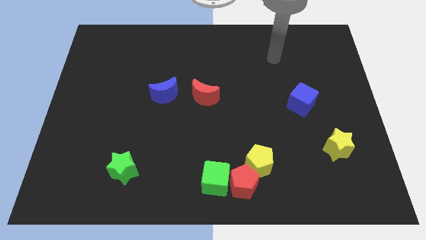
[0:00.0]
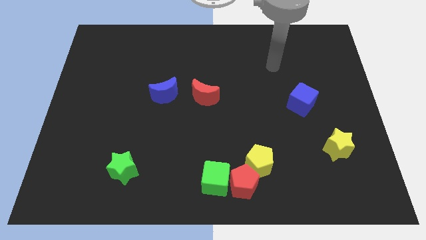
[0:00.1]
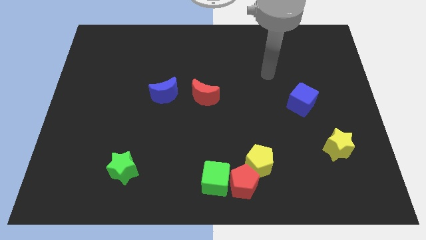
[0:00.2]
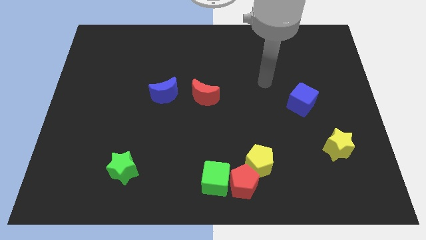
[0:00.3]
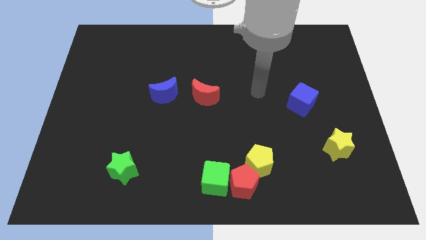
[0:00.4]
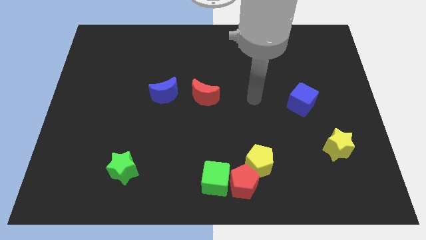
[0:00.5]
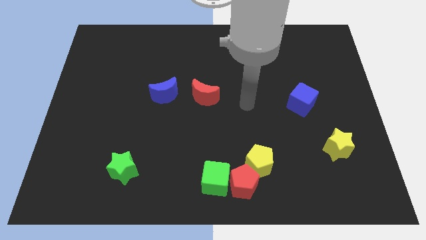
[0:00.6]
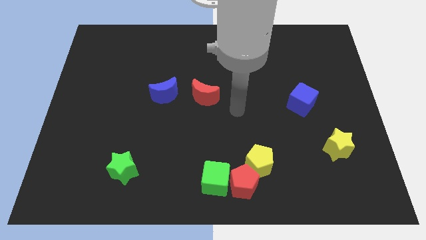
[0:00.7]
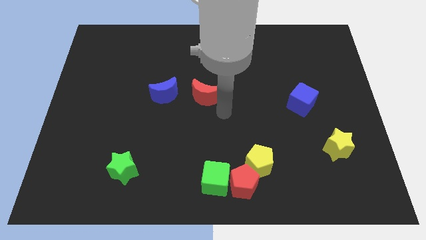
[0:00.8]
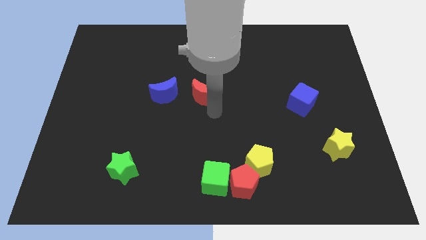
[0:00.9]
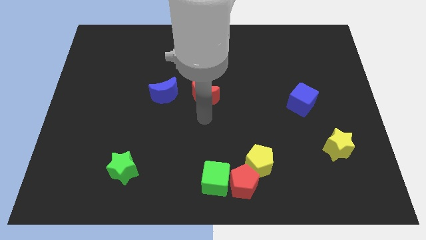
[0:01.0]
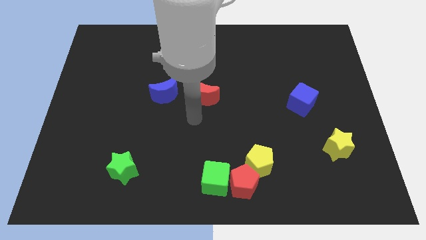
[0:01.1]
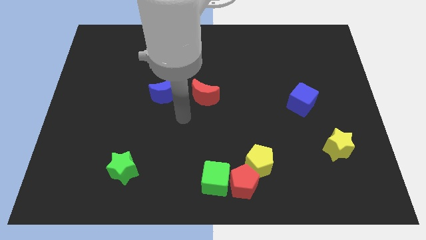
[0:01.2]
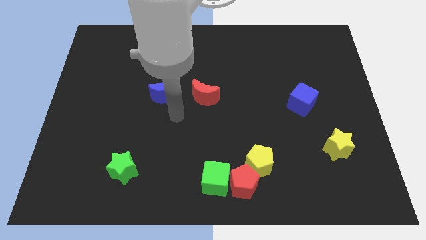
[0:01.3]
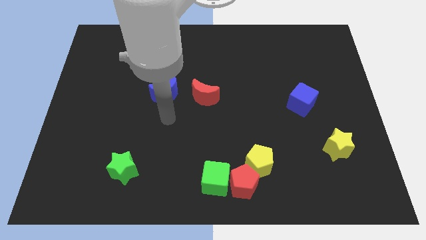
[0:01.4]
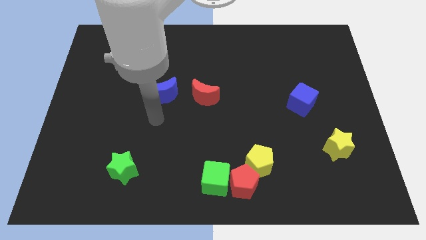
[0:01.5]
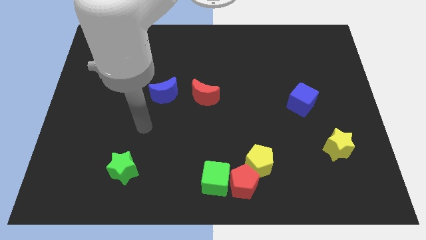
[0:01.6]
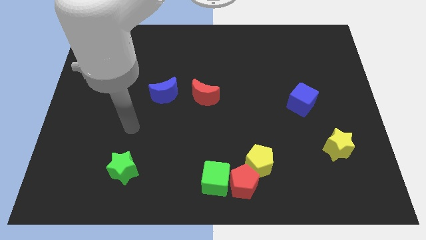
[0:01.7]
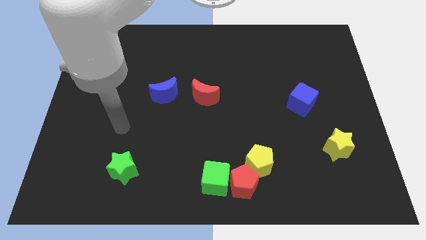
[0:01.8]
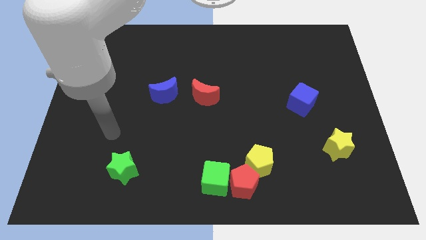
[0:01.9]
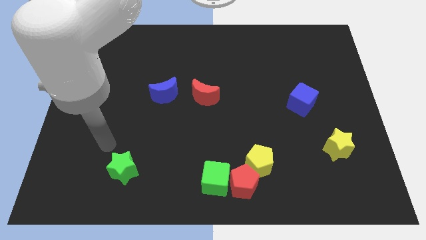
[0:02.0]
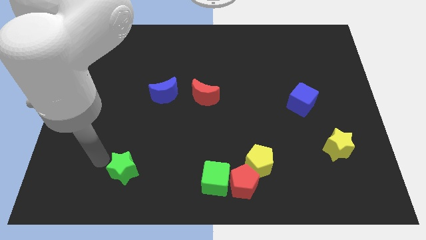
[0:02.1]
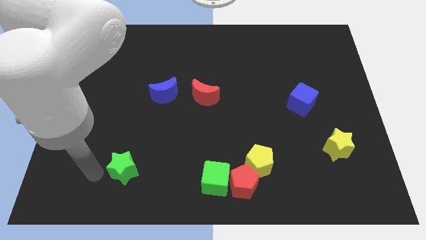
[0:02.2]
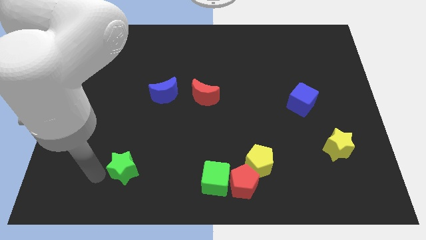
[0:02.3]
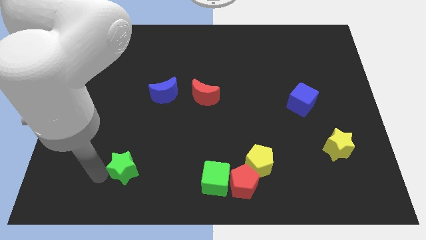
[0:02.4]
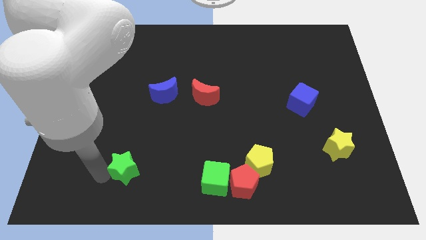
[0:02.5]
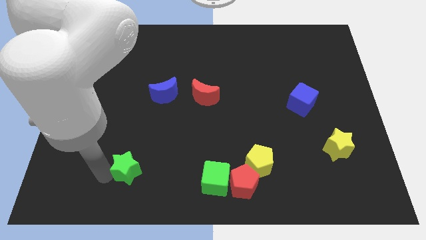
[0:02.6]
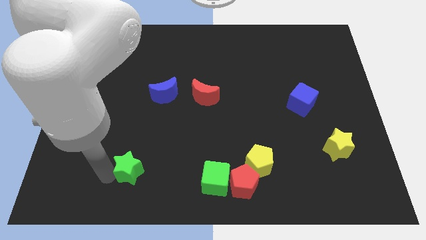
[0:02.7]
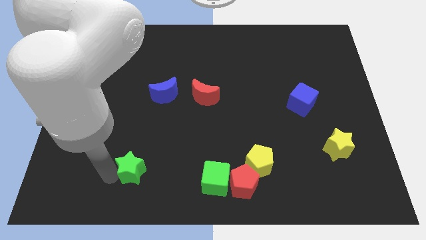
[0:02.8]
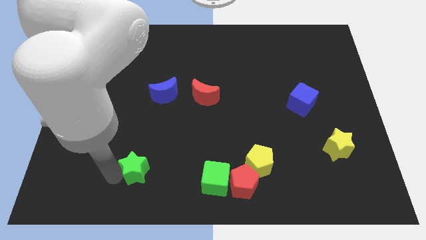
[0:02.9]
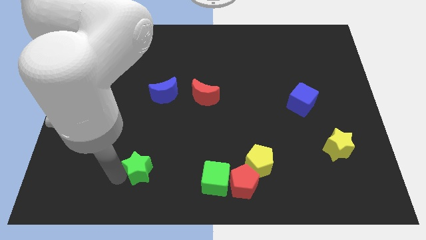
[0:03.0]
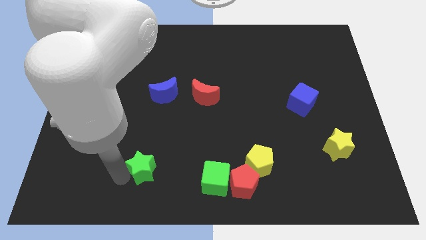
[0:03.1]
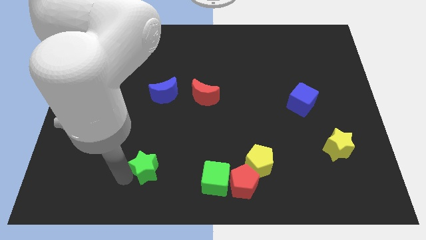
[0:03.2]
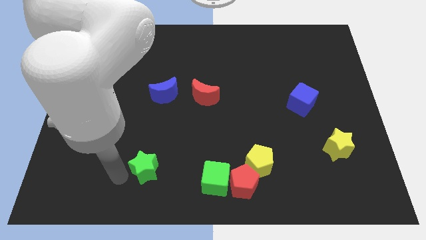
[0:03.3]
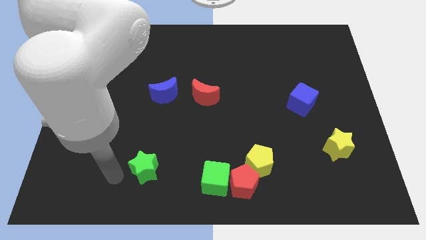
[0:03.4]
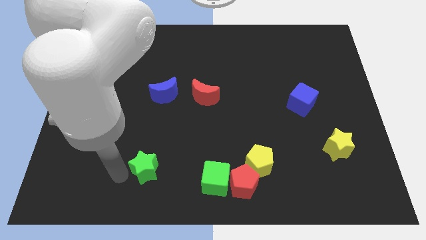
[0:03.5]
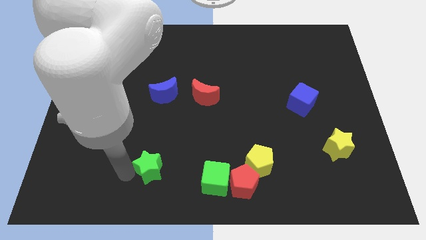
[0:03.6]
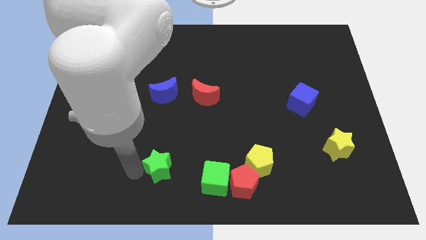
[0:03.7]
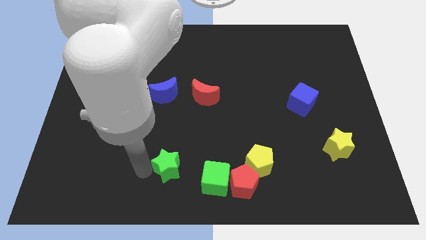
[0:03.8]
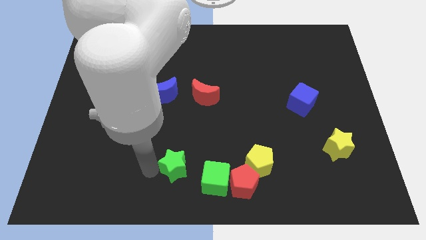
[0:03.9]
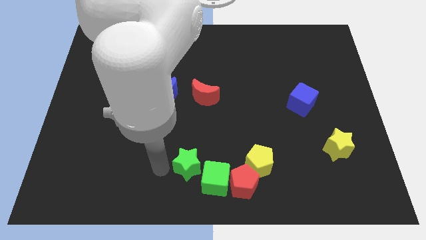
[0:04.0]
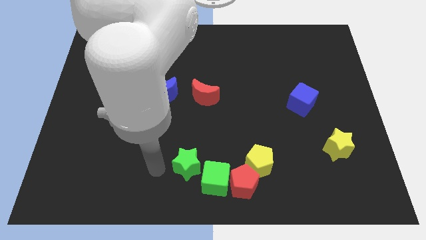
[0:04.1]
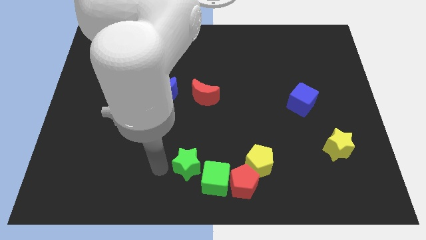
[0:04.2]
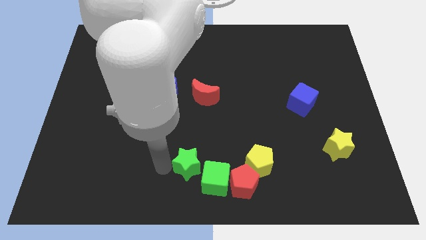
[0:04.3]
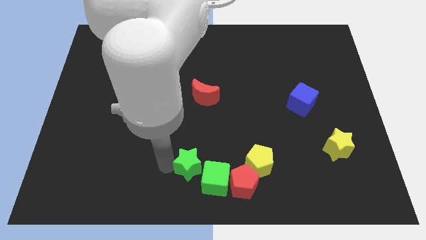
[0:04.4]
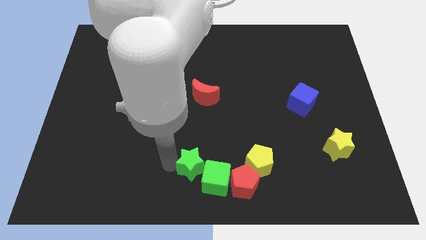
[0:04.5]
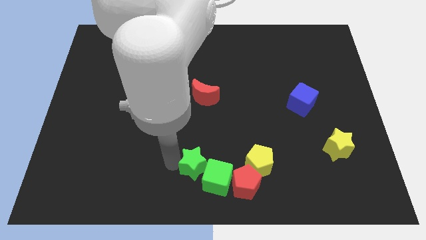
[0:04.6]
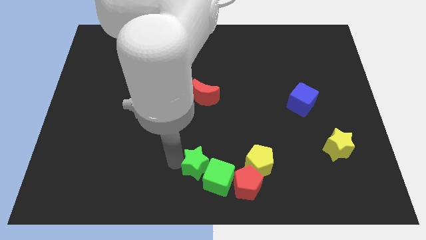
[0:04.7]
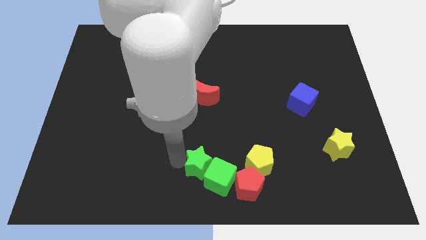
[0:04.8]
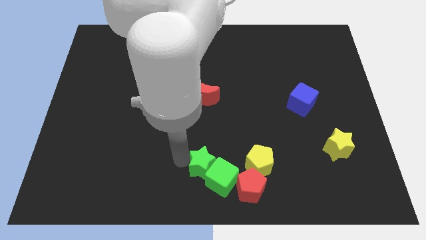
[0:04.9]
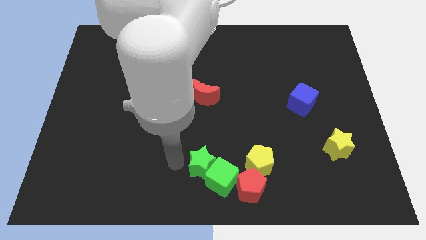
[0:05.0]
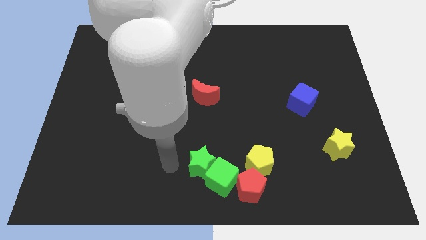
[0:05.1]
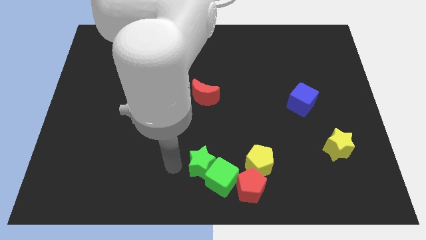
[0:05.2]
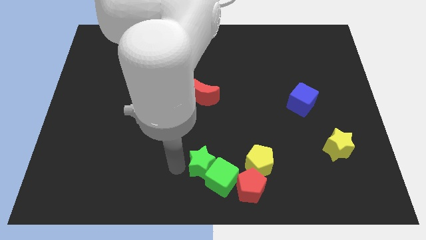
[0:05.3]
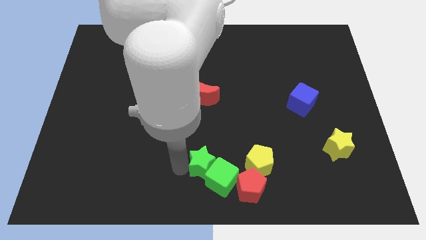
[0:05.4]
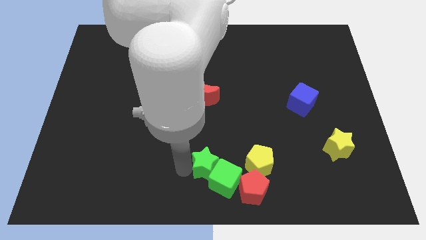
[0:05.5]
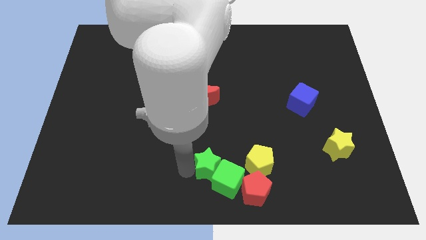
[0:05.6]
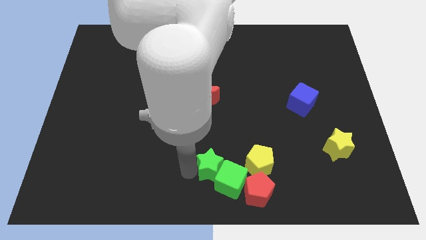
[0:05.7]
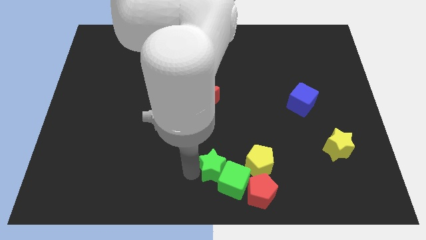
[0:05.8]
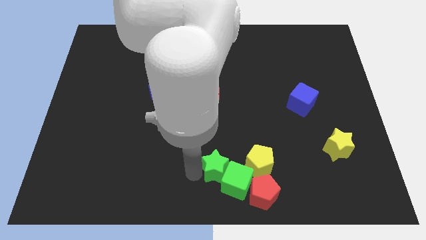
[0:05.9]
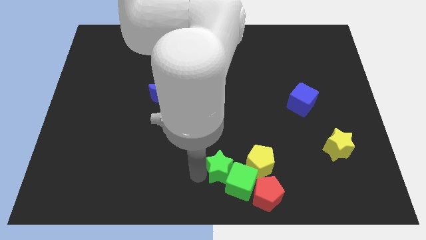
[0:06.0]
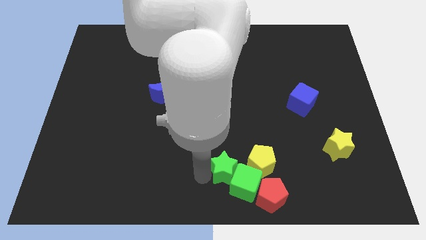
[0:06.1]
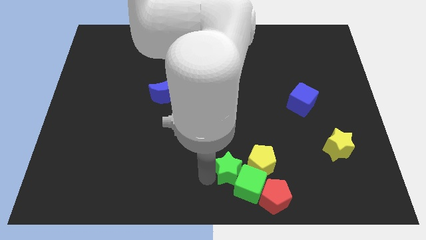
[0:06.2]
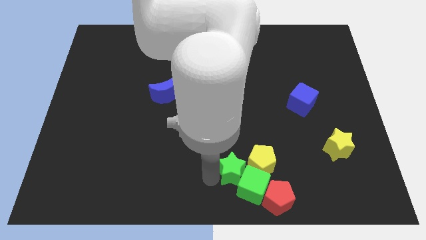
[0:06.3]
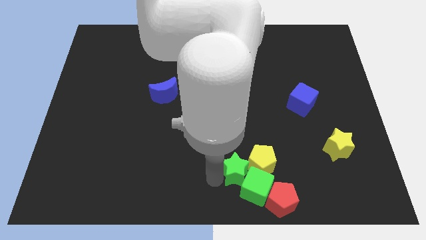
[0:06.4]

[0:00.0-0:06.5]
push the green star towards the yellow pentagon

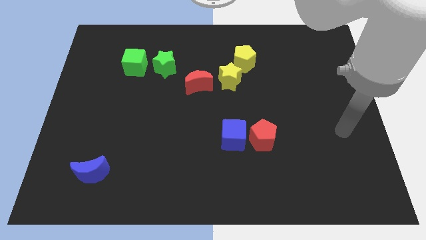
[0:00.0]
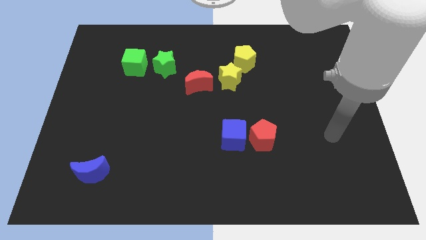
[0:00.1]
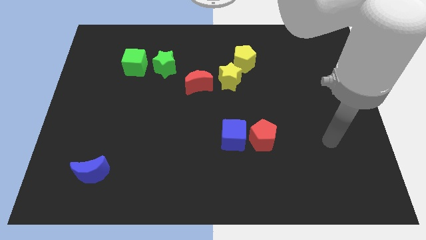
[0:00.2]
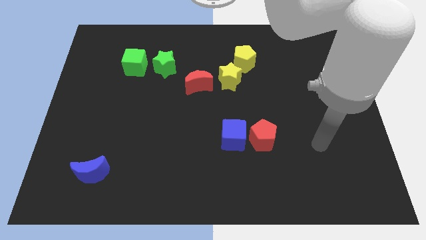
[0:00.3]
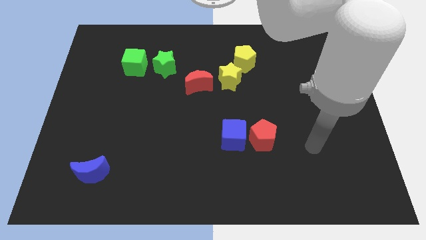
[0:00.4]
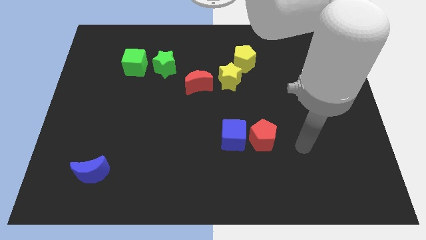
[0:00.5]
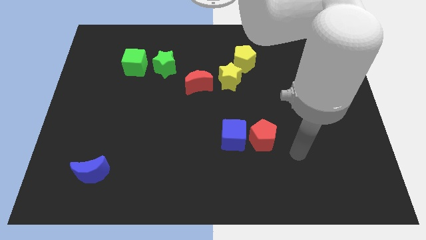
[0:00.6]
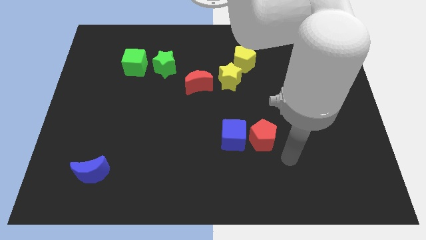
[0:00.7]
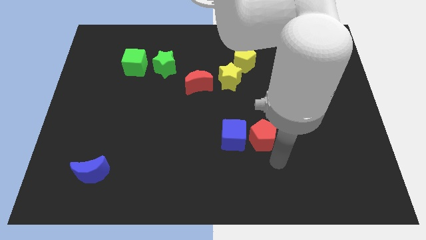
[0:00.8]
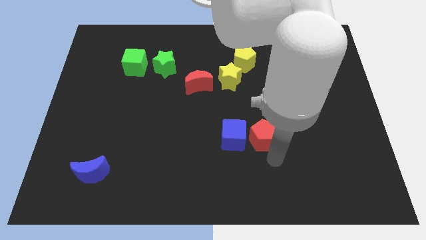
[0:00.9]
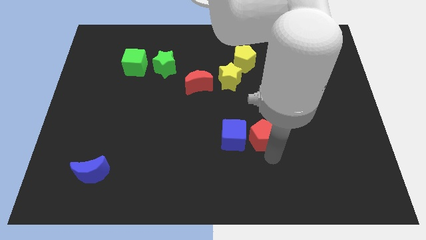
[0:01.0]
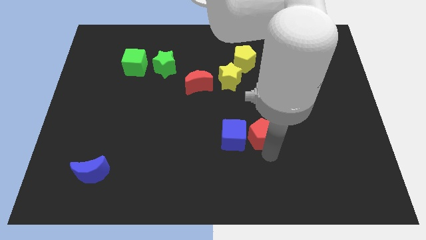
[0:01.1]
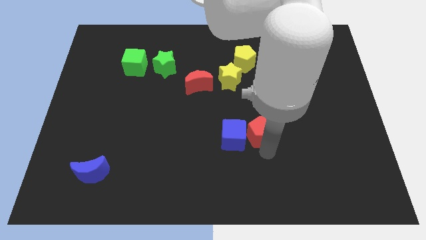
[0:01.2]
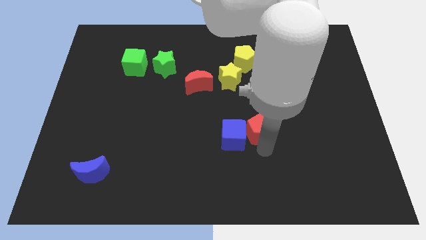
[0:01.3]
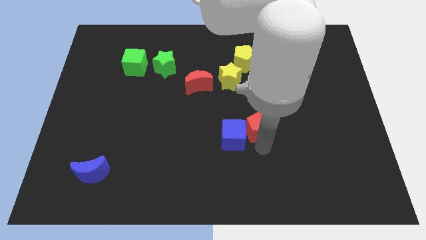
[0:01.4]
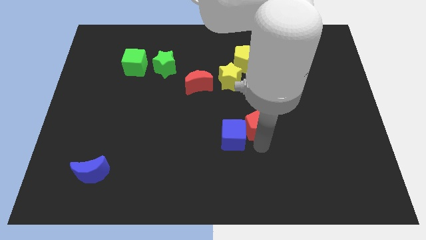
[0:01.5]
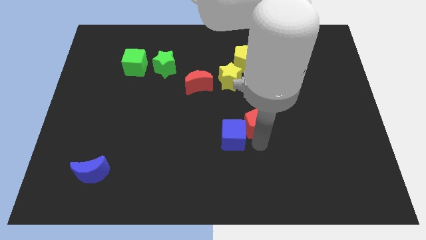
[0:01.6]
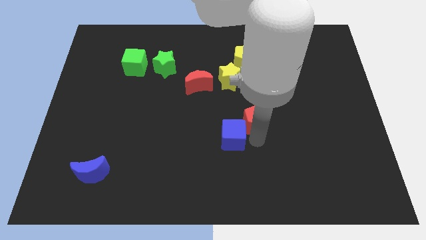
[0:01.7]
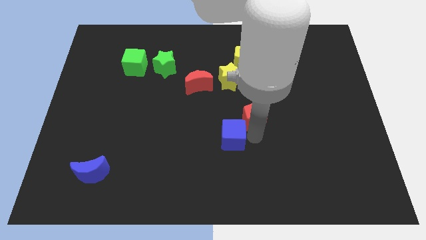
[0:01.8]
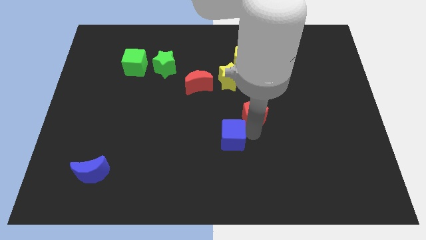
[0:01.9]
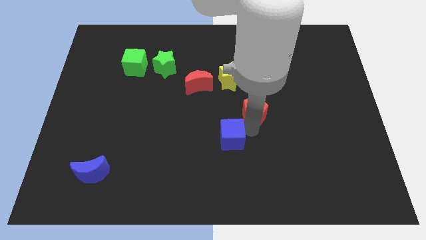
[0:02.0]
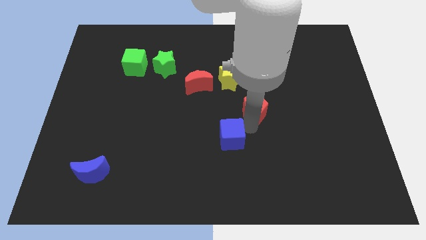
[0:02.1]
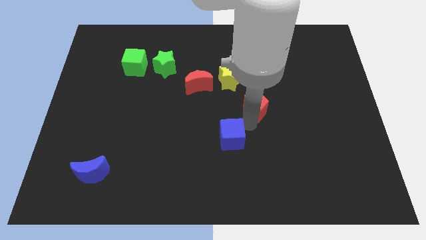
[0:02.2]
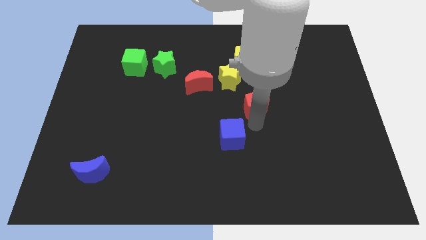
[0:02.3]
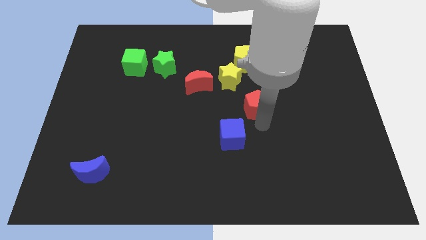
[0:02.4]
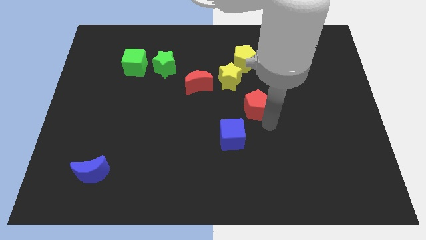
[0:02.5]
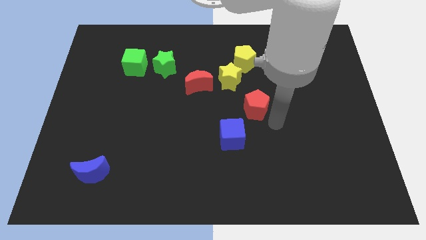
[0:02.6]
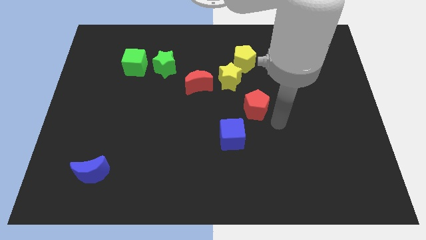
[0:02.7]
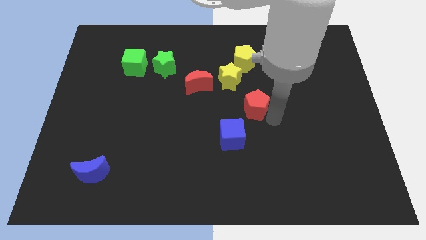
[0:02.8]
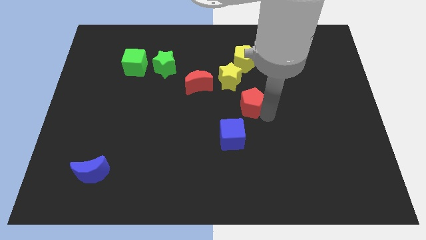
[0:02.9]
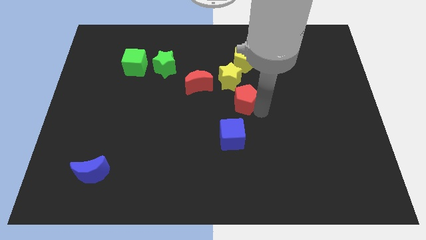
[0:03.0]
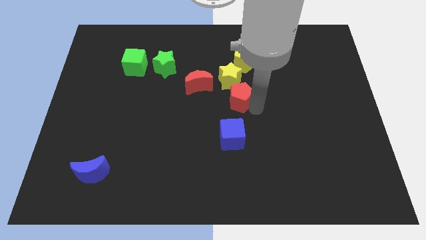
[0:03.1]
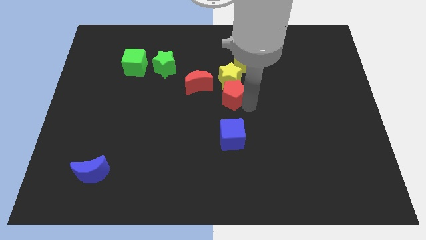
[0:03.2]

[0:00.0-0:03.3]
push the red pentagon close to the yellow star
